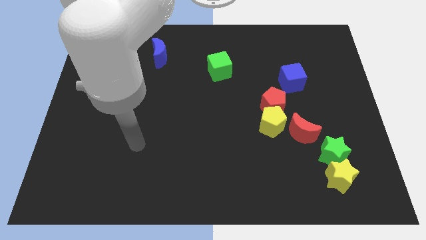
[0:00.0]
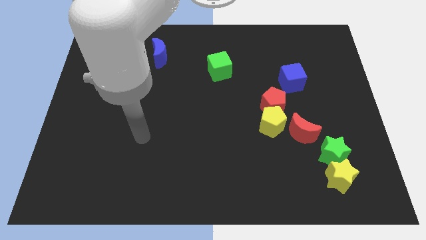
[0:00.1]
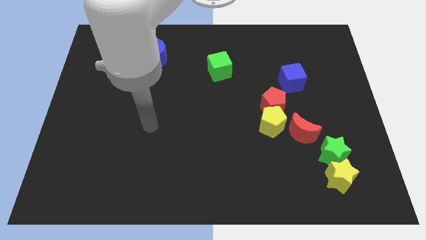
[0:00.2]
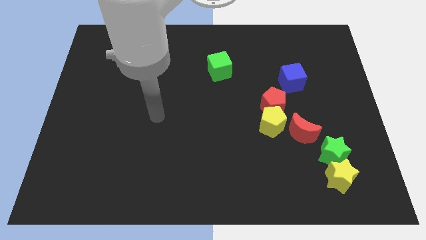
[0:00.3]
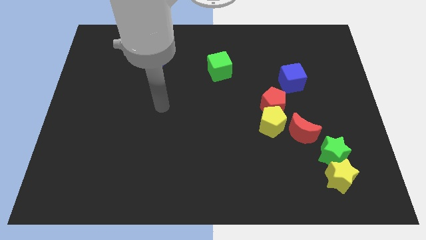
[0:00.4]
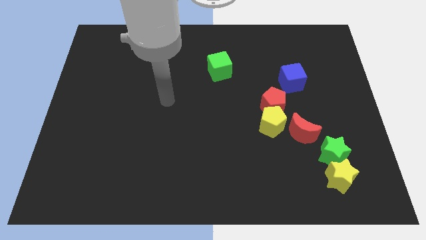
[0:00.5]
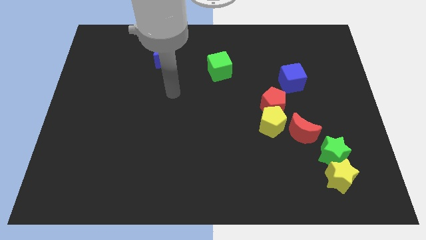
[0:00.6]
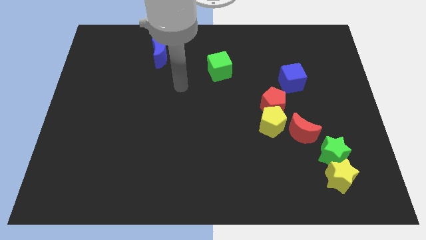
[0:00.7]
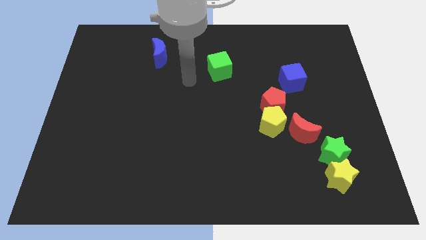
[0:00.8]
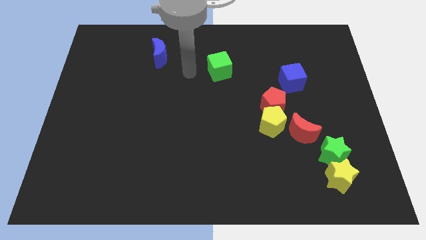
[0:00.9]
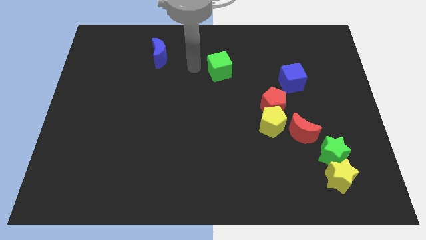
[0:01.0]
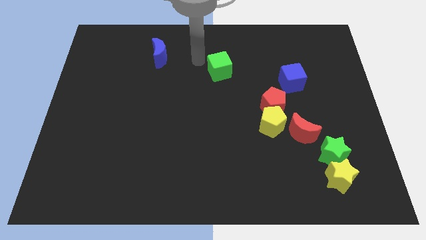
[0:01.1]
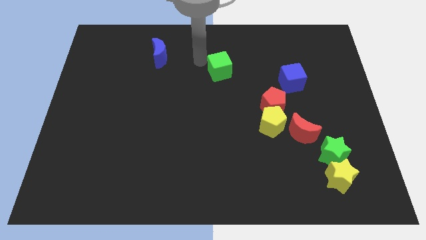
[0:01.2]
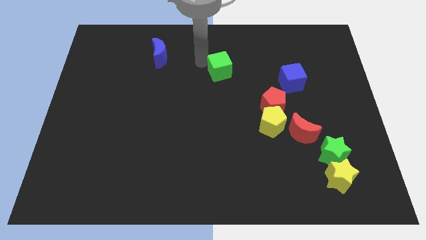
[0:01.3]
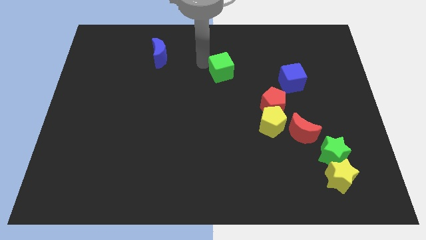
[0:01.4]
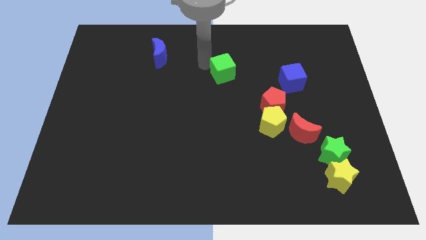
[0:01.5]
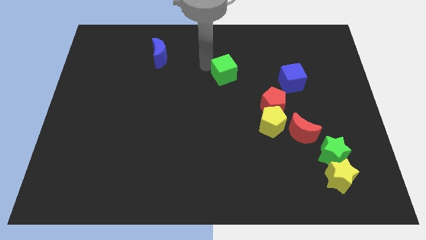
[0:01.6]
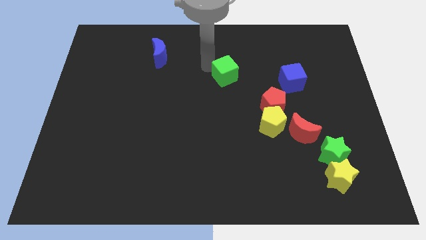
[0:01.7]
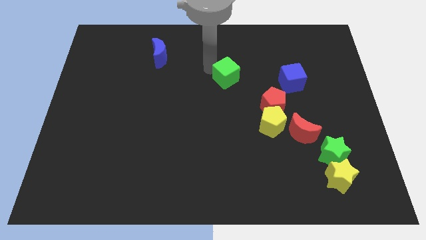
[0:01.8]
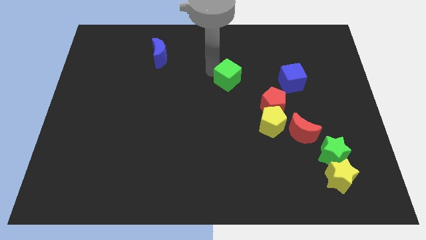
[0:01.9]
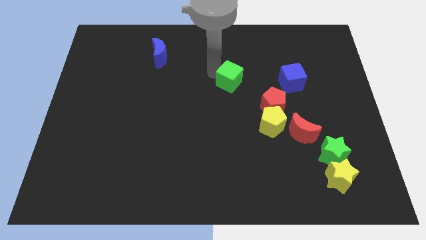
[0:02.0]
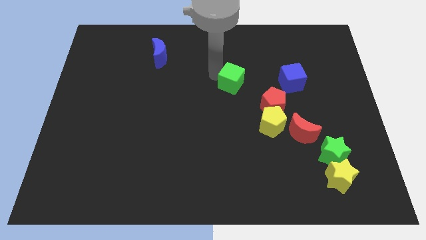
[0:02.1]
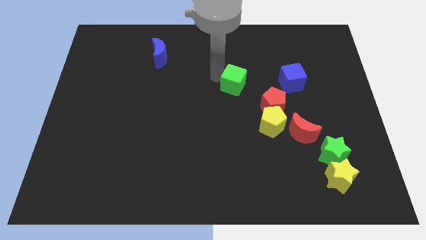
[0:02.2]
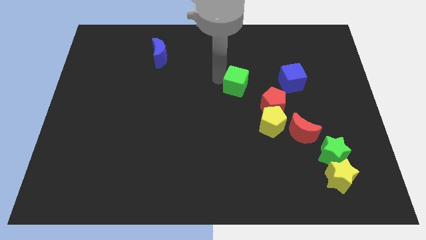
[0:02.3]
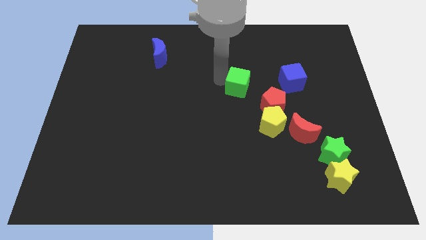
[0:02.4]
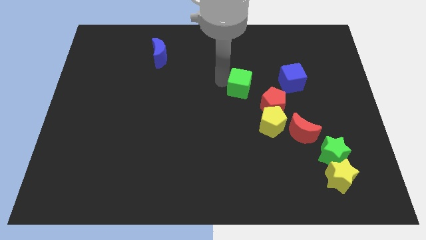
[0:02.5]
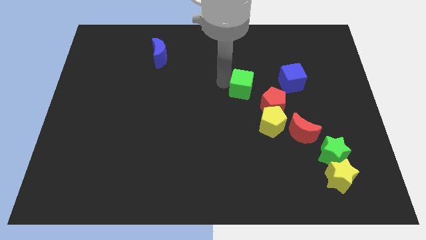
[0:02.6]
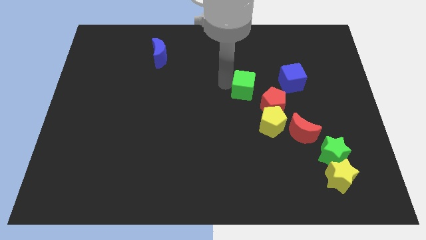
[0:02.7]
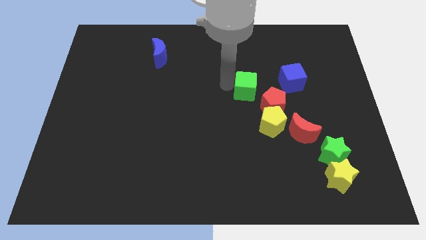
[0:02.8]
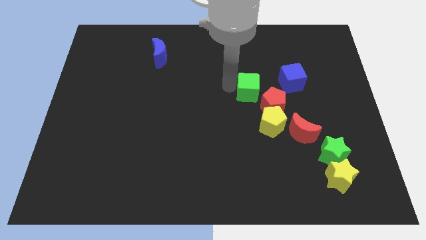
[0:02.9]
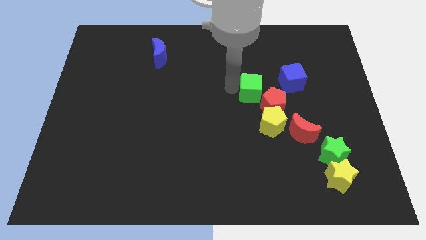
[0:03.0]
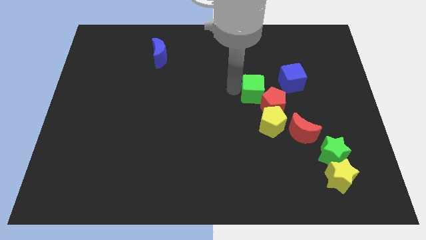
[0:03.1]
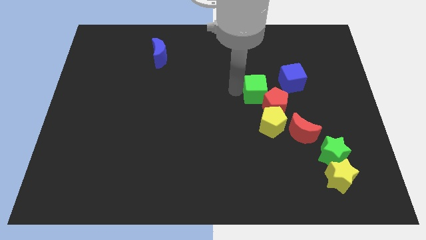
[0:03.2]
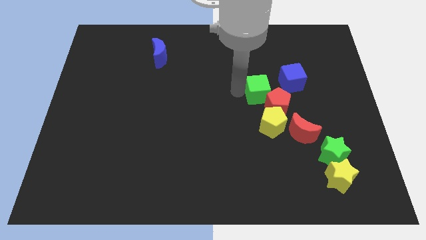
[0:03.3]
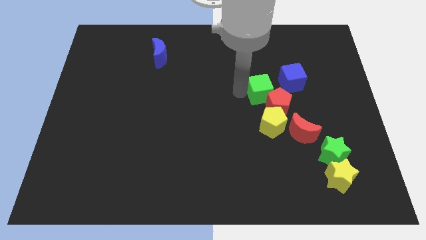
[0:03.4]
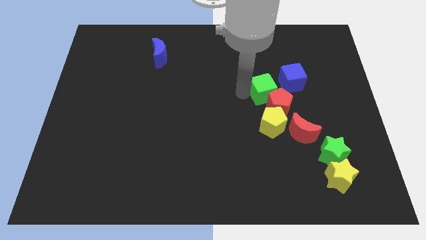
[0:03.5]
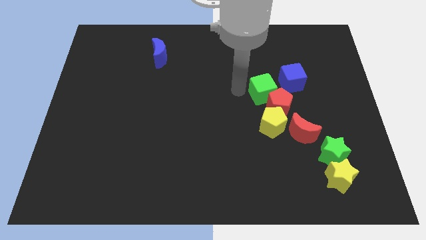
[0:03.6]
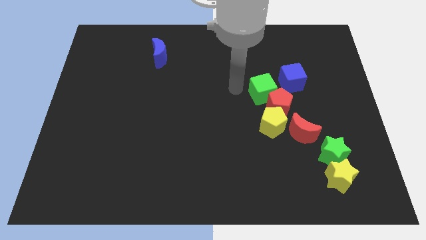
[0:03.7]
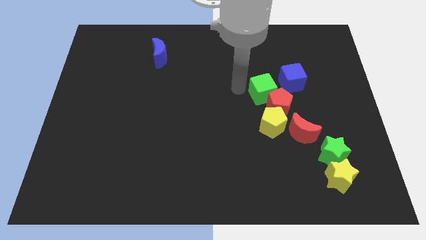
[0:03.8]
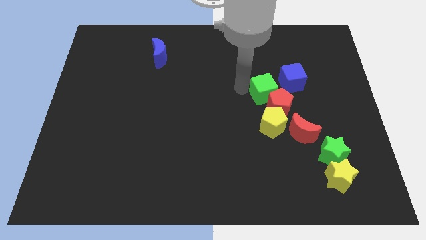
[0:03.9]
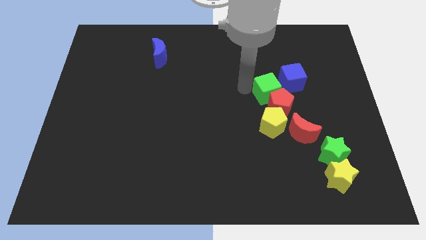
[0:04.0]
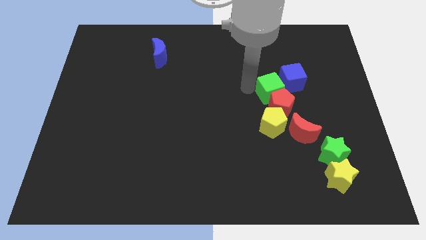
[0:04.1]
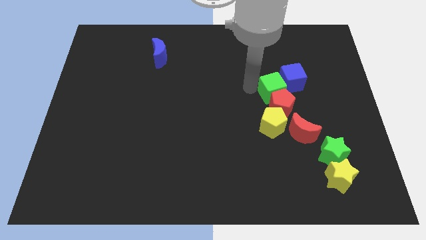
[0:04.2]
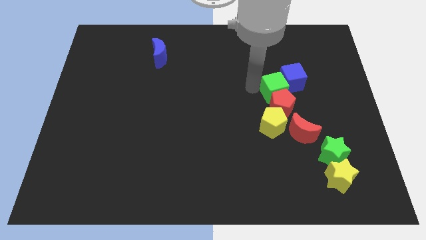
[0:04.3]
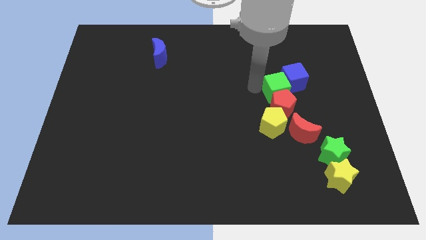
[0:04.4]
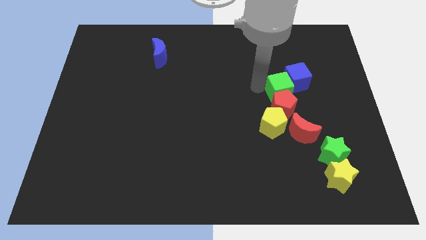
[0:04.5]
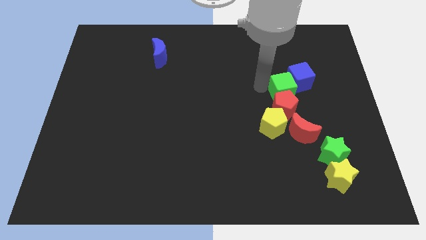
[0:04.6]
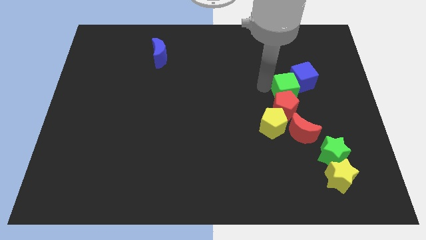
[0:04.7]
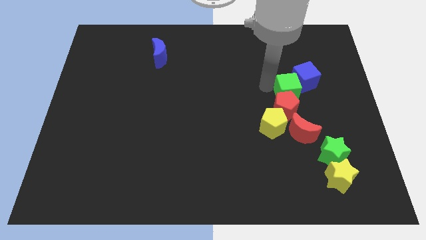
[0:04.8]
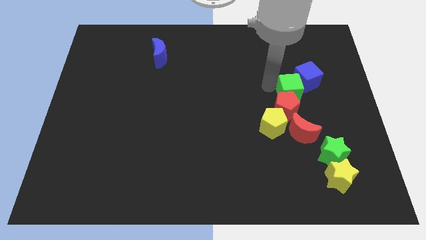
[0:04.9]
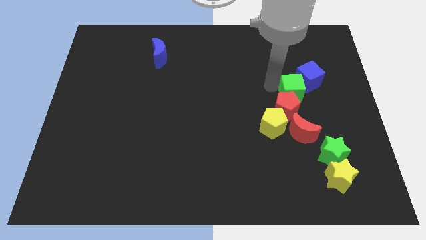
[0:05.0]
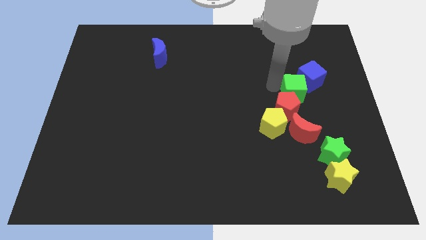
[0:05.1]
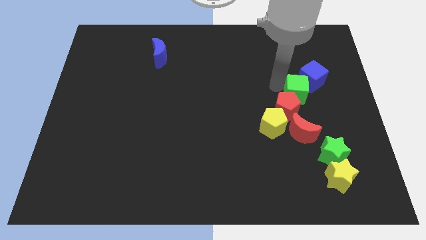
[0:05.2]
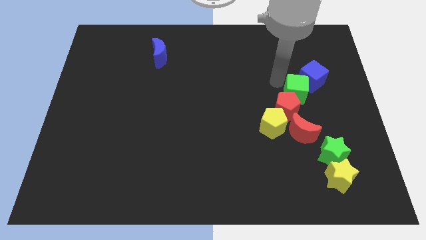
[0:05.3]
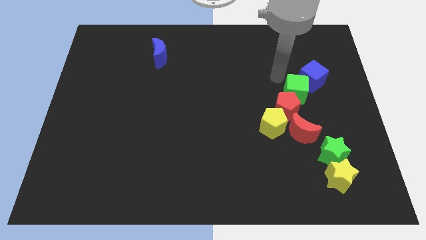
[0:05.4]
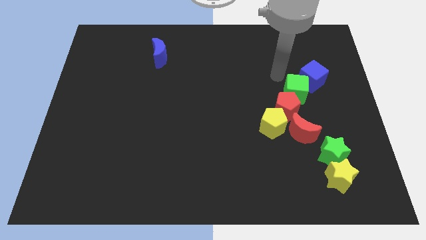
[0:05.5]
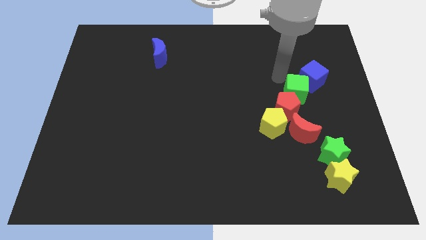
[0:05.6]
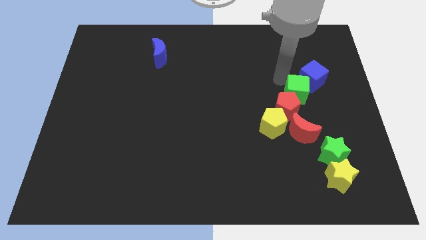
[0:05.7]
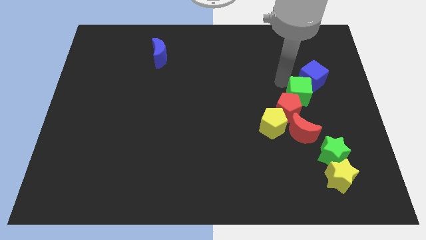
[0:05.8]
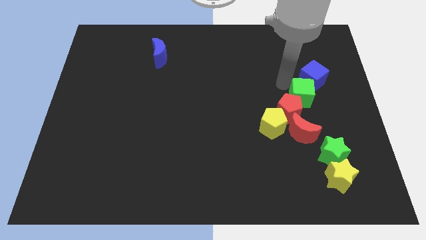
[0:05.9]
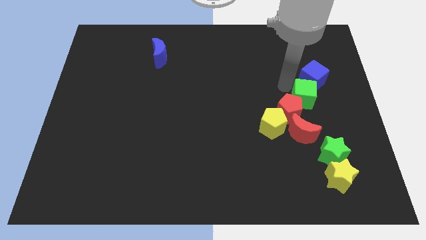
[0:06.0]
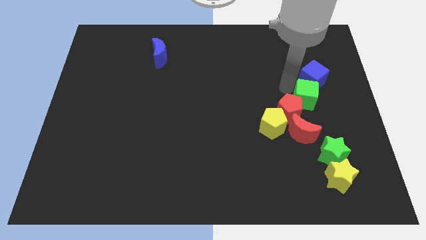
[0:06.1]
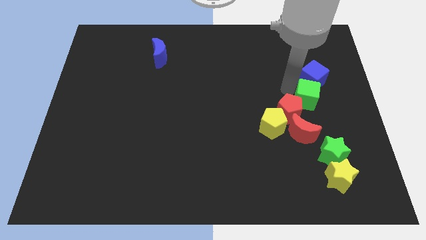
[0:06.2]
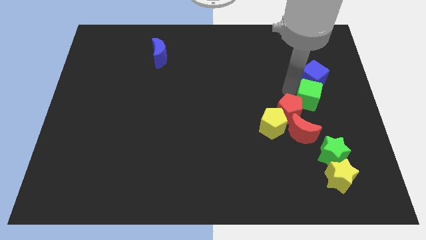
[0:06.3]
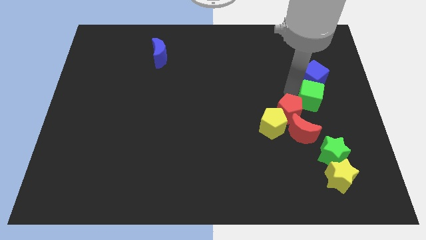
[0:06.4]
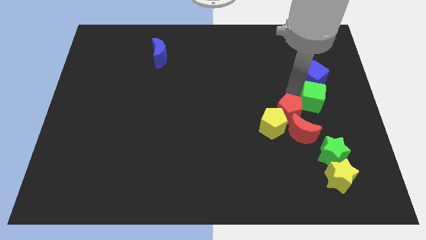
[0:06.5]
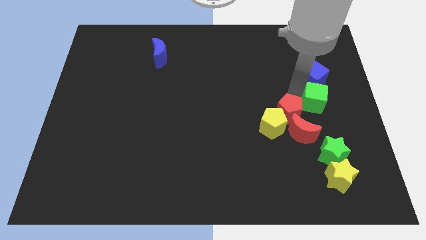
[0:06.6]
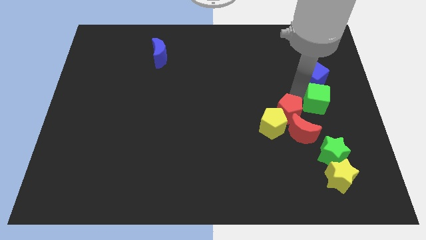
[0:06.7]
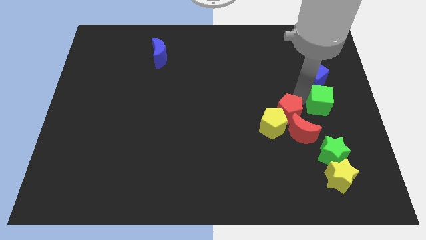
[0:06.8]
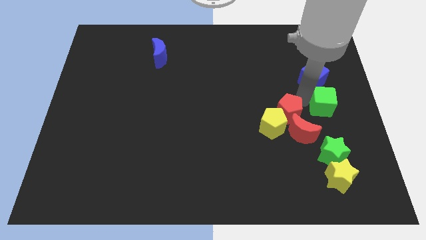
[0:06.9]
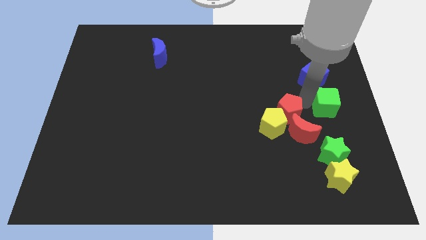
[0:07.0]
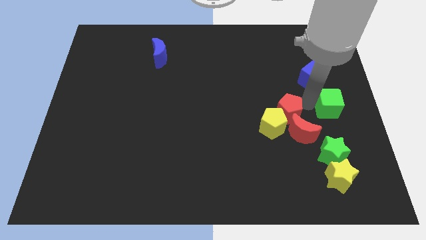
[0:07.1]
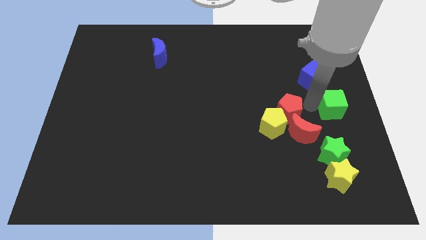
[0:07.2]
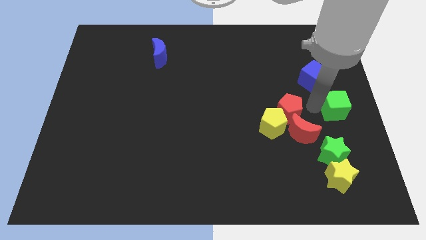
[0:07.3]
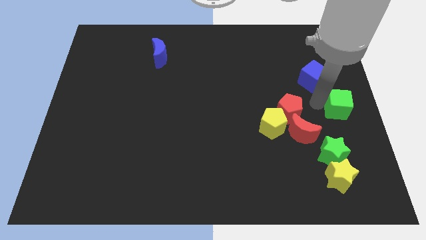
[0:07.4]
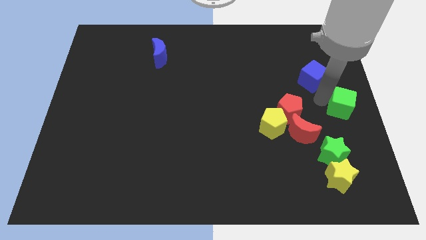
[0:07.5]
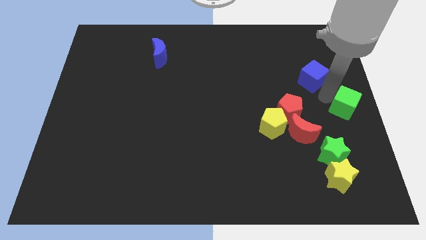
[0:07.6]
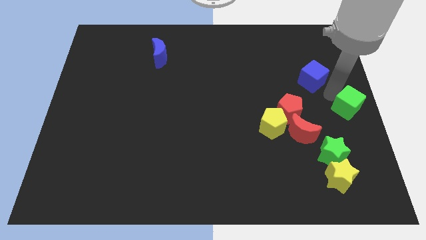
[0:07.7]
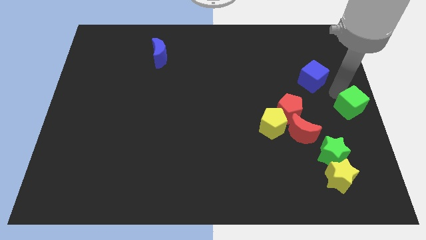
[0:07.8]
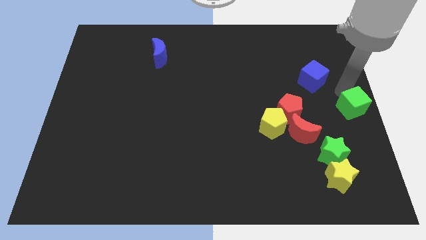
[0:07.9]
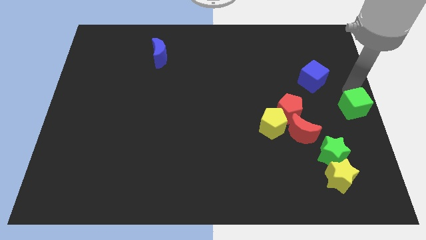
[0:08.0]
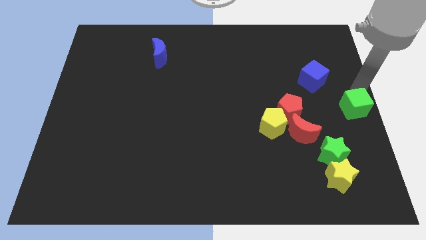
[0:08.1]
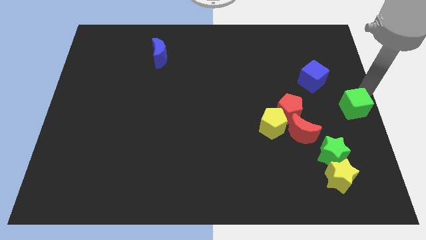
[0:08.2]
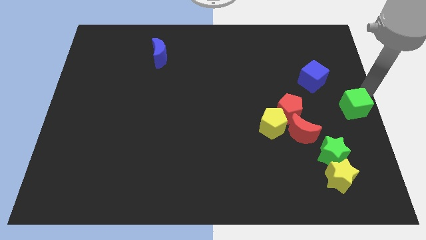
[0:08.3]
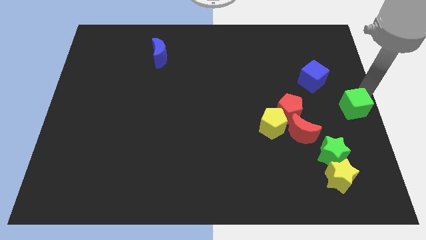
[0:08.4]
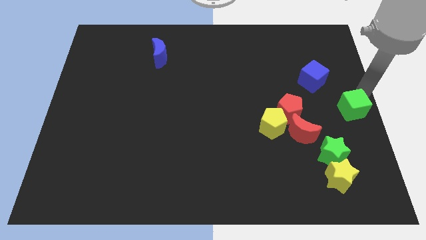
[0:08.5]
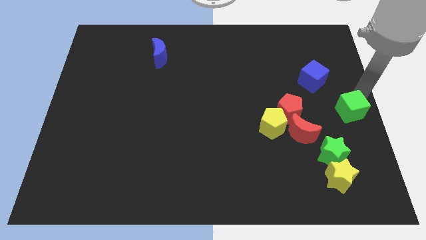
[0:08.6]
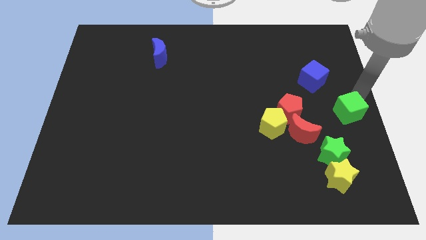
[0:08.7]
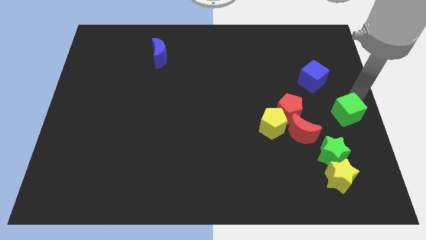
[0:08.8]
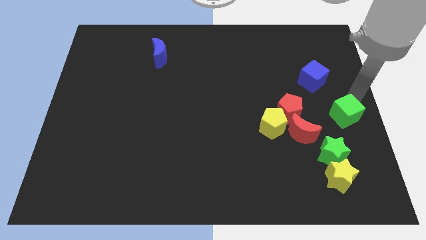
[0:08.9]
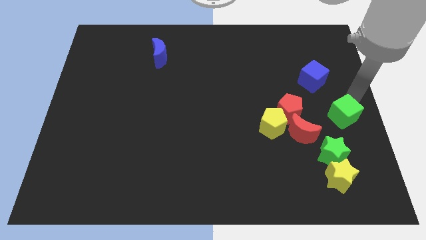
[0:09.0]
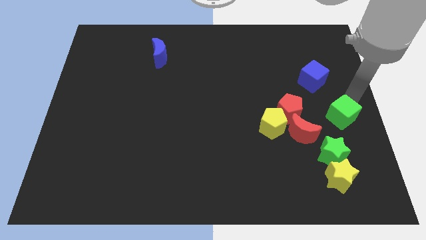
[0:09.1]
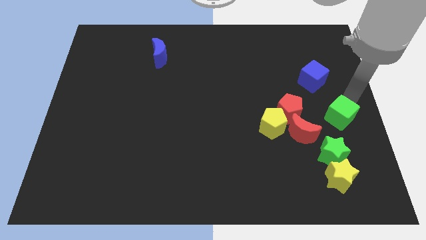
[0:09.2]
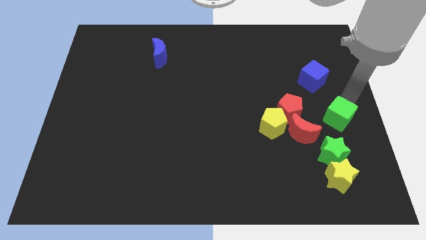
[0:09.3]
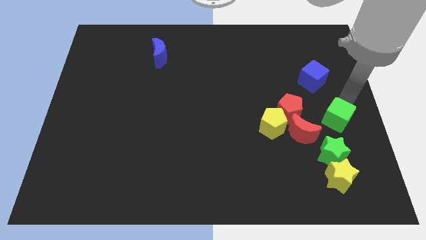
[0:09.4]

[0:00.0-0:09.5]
slide the green cube above the yellow star
